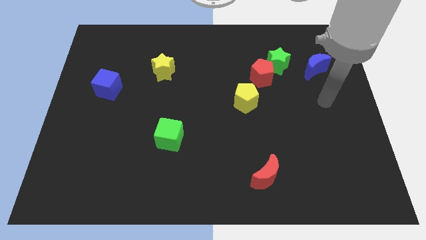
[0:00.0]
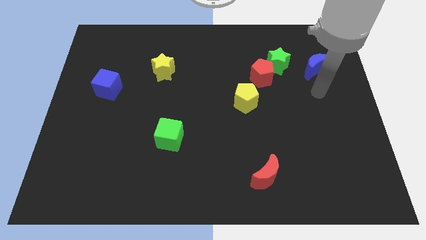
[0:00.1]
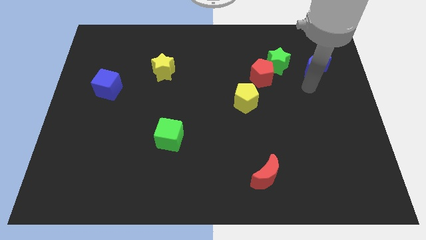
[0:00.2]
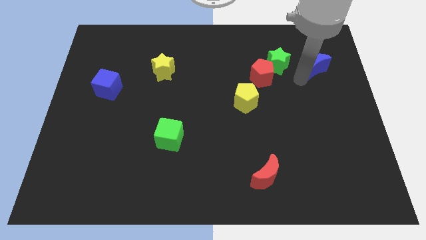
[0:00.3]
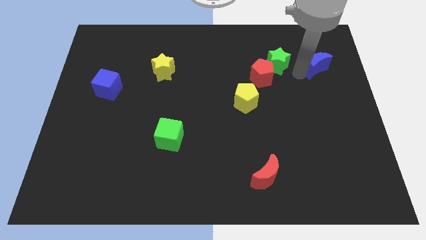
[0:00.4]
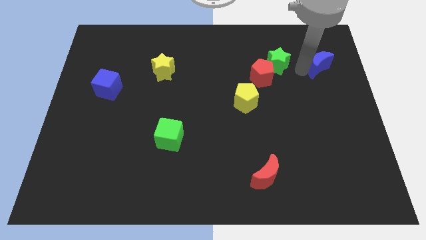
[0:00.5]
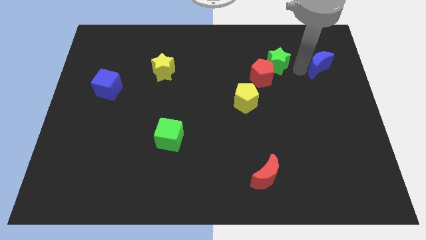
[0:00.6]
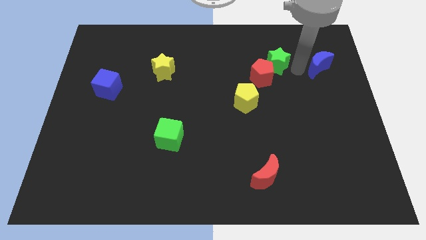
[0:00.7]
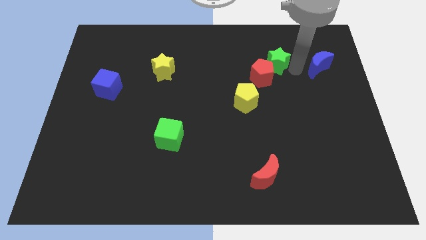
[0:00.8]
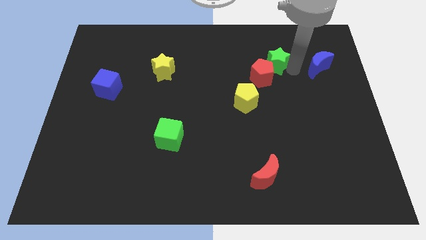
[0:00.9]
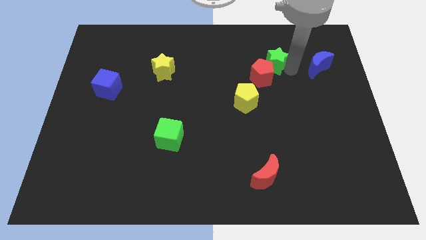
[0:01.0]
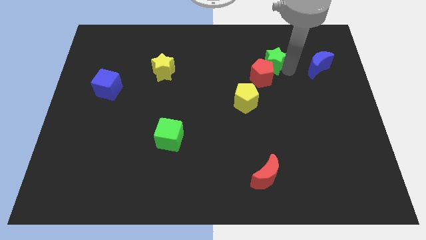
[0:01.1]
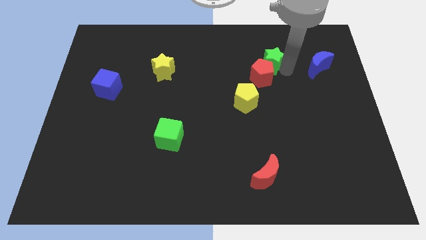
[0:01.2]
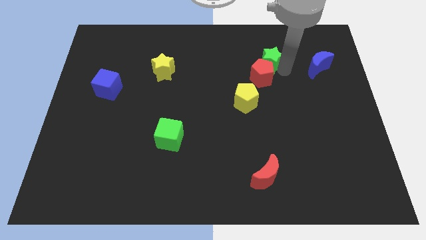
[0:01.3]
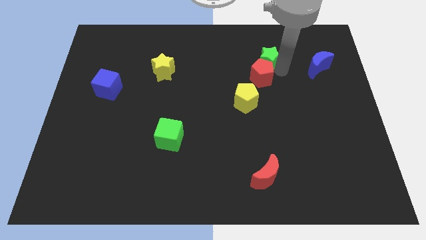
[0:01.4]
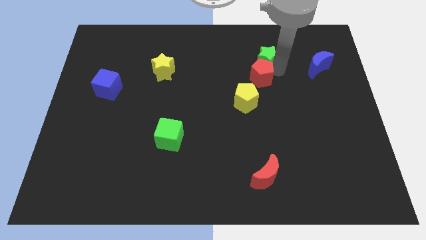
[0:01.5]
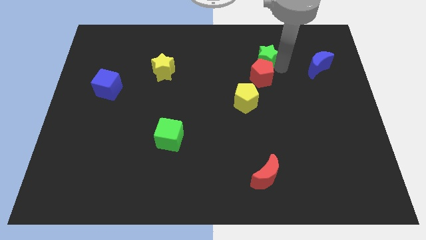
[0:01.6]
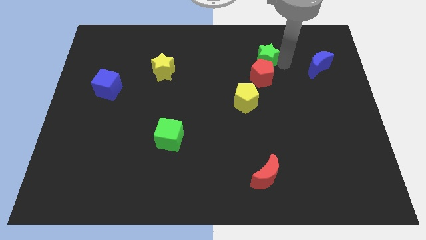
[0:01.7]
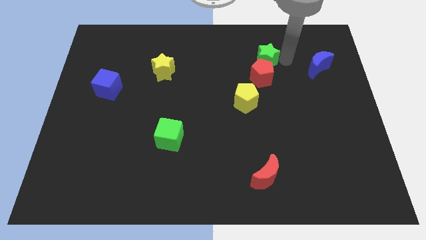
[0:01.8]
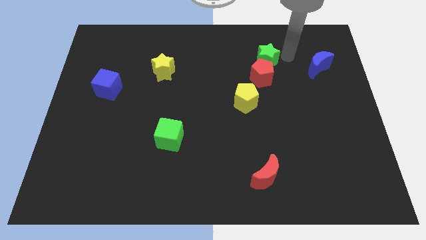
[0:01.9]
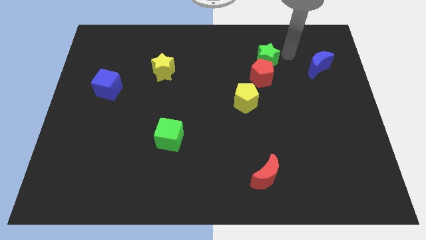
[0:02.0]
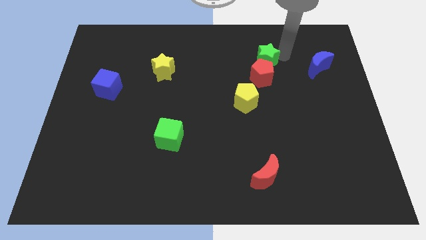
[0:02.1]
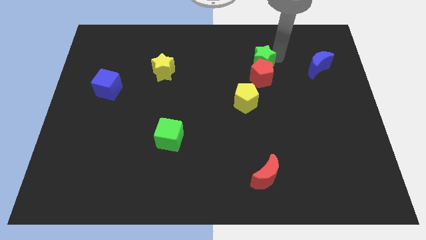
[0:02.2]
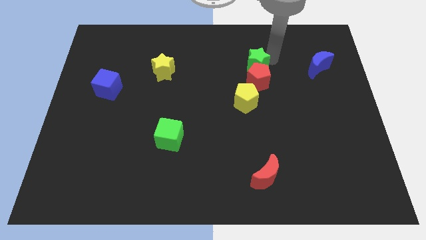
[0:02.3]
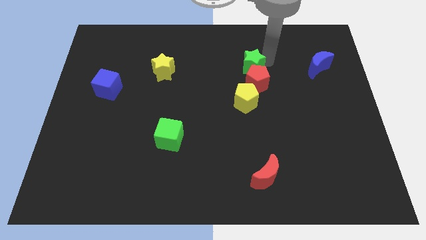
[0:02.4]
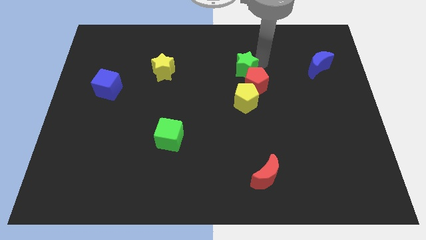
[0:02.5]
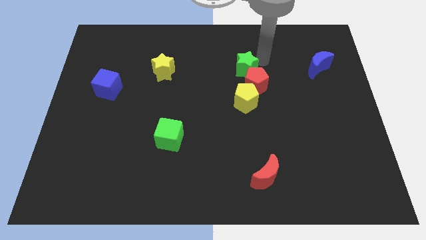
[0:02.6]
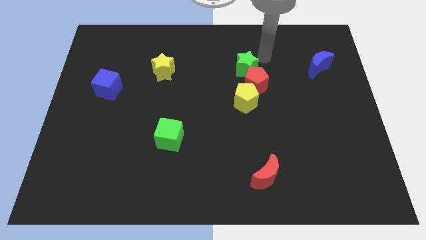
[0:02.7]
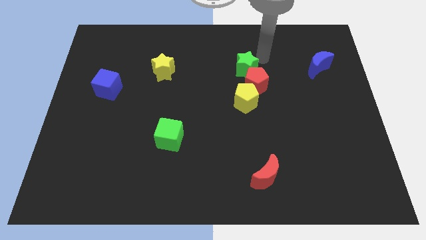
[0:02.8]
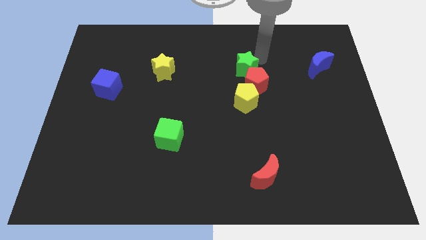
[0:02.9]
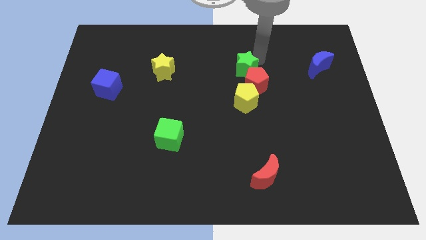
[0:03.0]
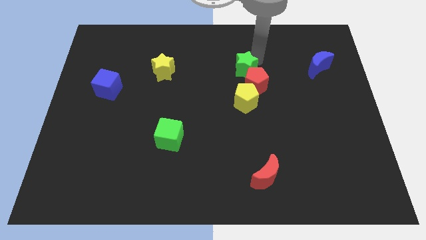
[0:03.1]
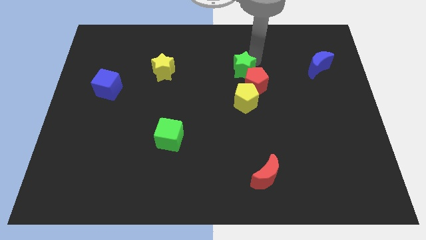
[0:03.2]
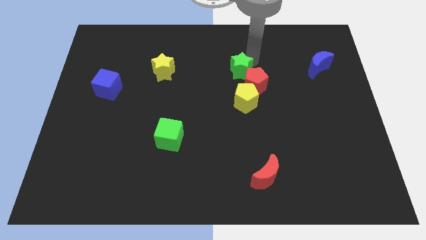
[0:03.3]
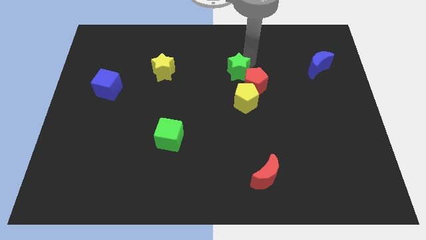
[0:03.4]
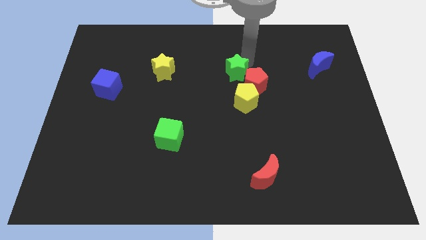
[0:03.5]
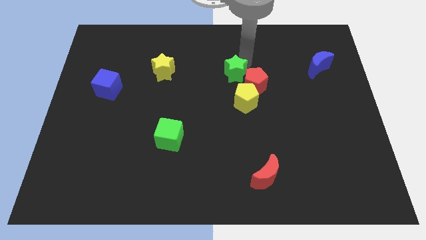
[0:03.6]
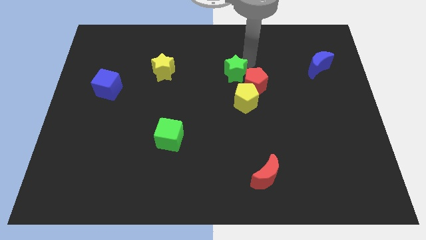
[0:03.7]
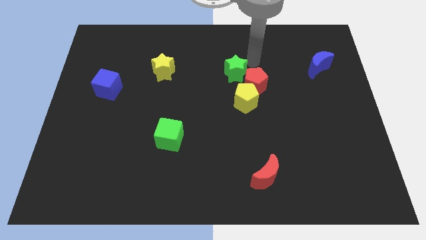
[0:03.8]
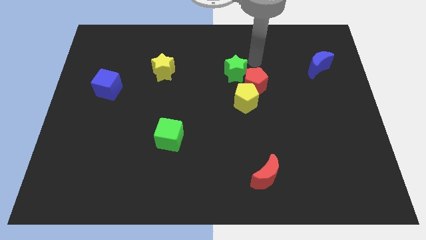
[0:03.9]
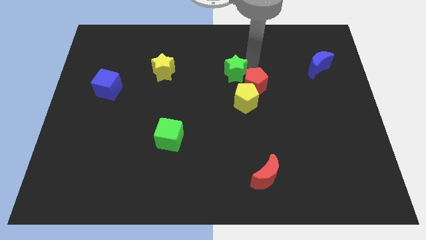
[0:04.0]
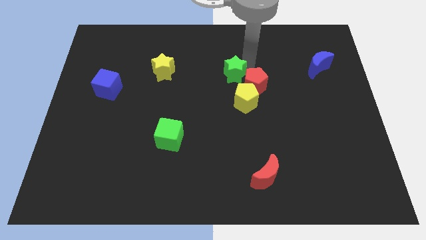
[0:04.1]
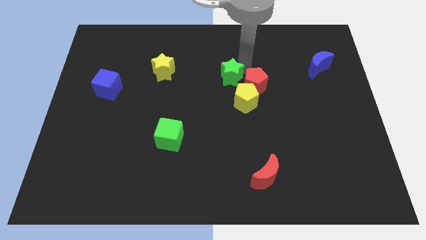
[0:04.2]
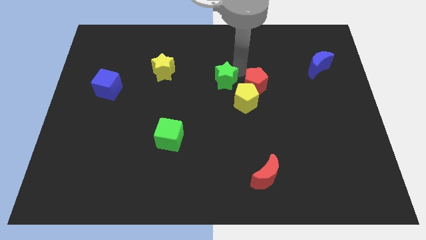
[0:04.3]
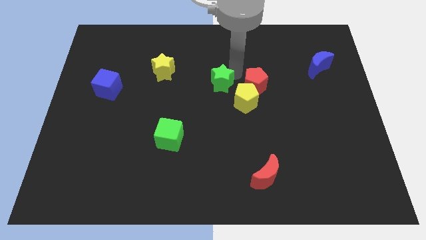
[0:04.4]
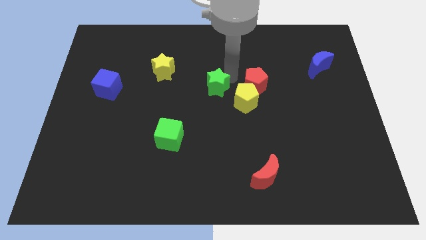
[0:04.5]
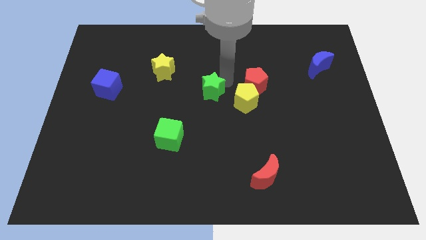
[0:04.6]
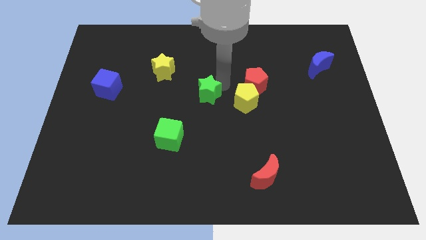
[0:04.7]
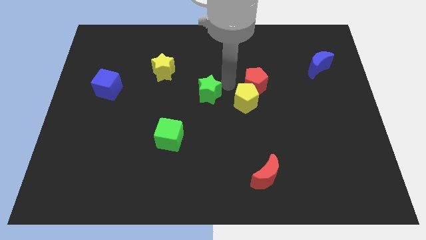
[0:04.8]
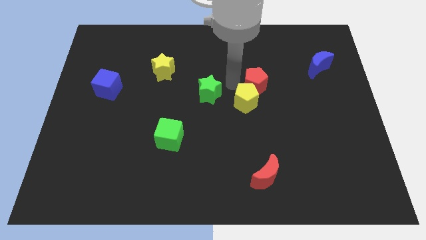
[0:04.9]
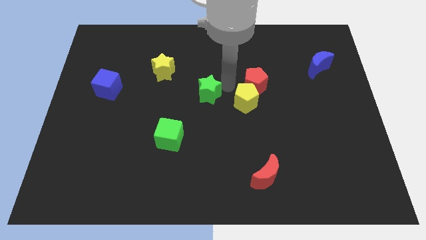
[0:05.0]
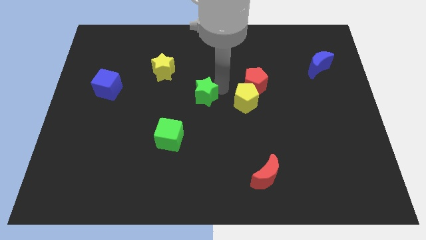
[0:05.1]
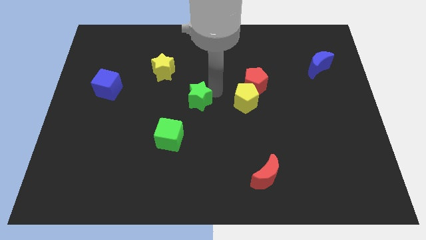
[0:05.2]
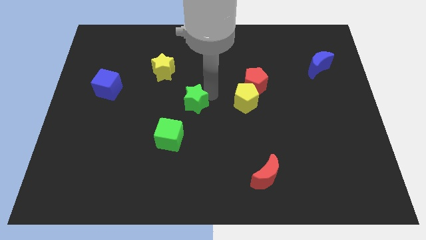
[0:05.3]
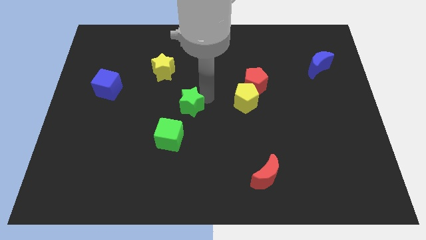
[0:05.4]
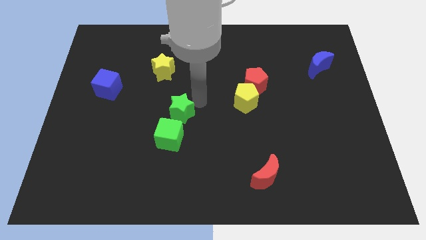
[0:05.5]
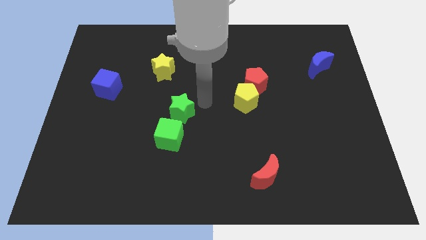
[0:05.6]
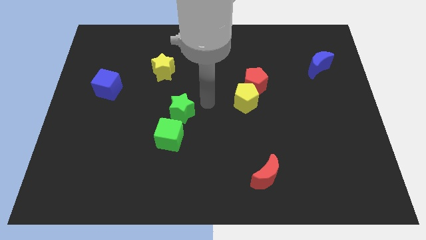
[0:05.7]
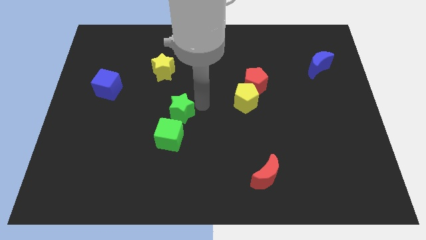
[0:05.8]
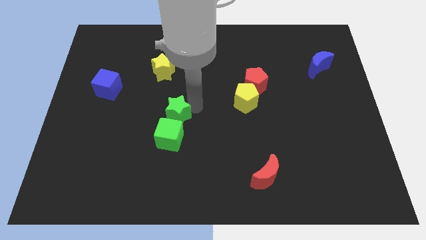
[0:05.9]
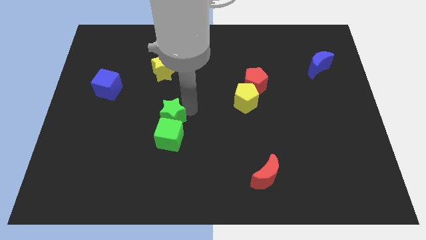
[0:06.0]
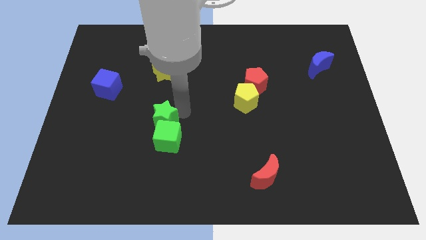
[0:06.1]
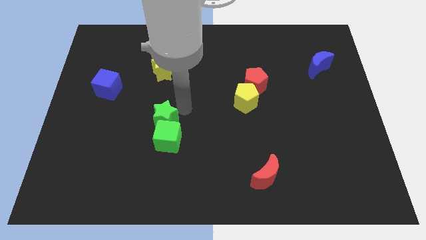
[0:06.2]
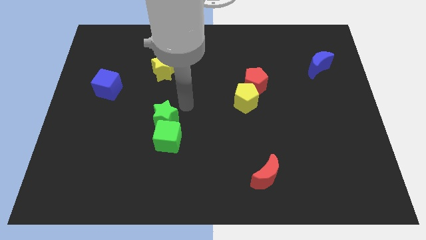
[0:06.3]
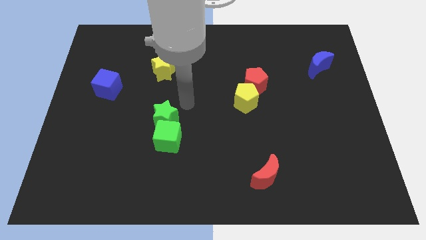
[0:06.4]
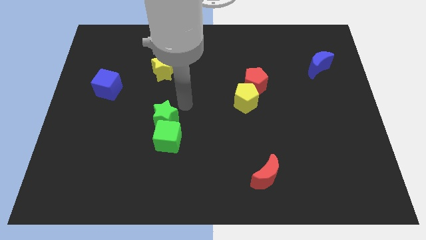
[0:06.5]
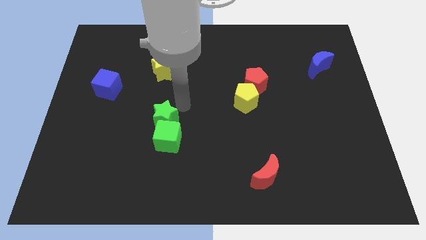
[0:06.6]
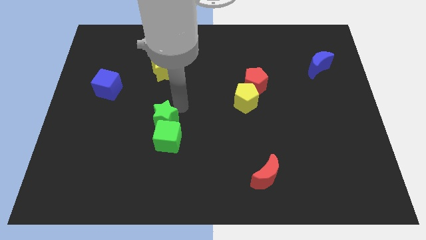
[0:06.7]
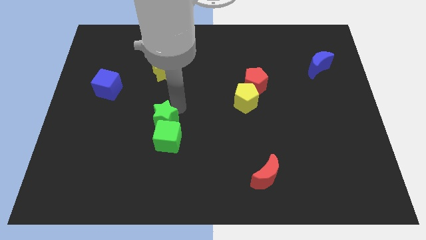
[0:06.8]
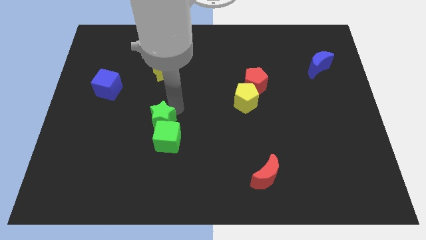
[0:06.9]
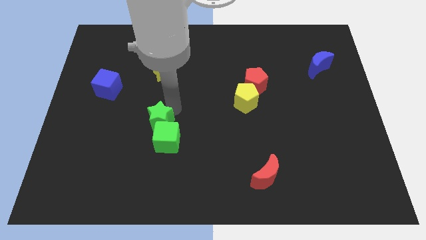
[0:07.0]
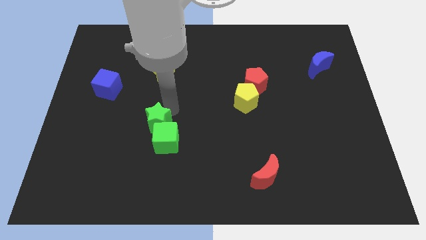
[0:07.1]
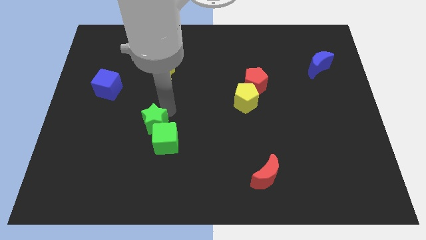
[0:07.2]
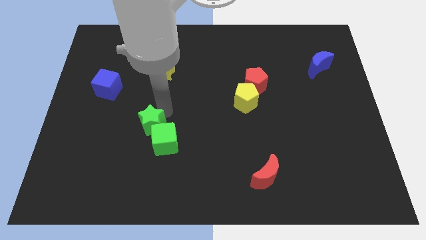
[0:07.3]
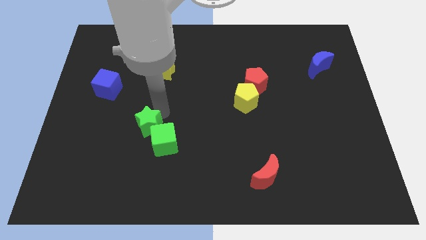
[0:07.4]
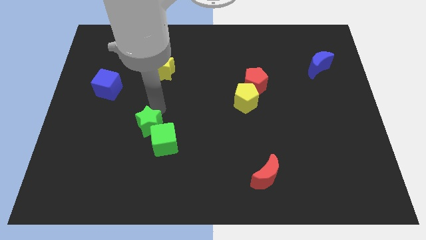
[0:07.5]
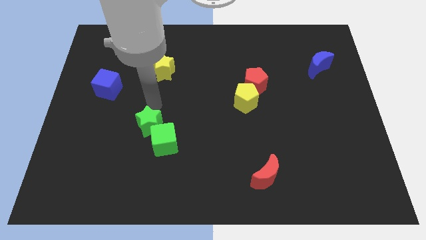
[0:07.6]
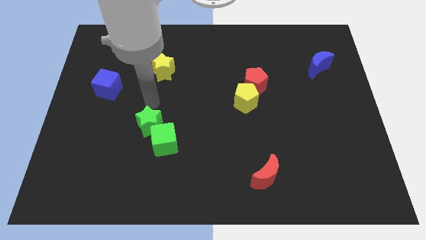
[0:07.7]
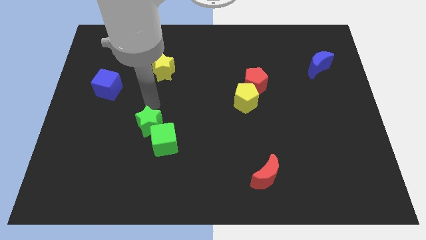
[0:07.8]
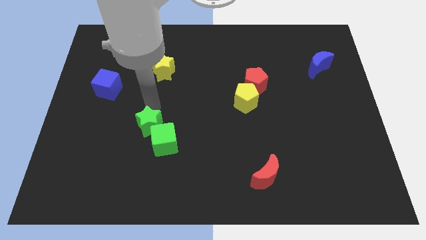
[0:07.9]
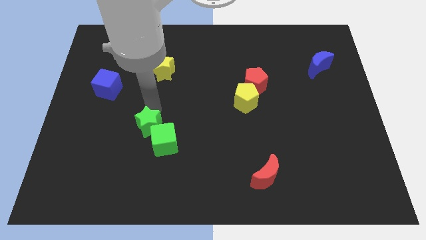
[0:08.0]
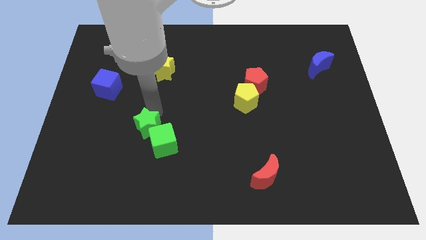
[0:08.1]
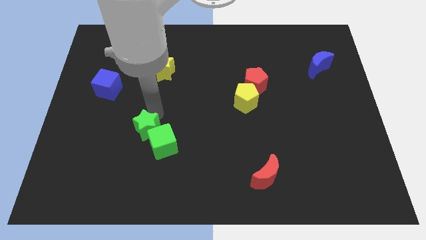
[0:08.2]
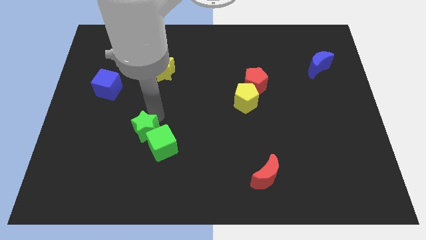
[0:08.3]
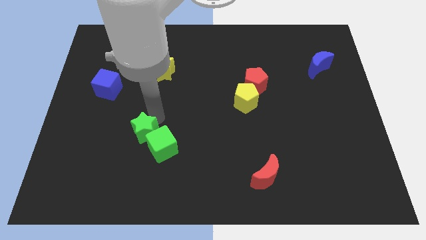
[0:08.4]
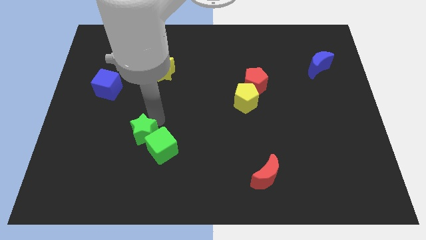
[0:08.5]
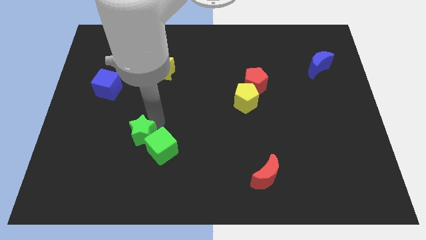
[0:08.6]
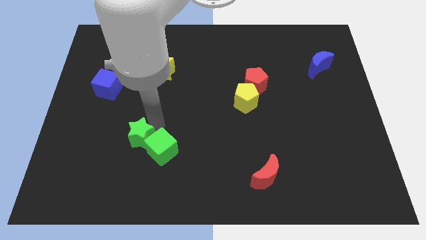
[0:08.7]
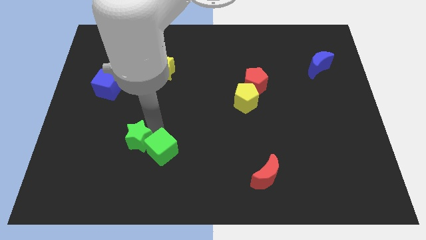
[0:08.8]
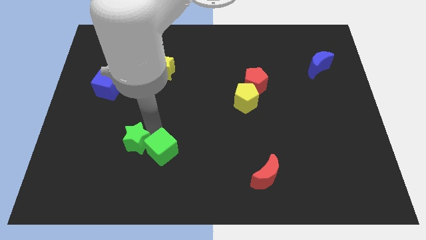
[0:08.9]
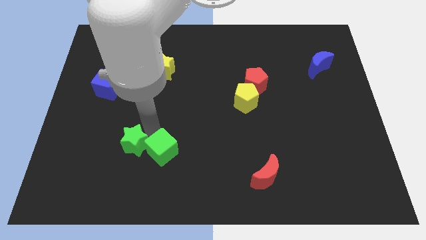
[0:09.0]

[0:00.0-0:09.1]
put the green star to the bottom left of the green cube
